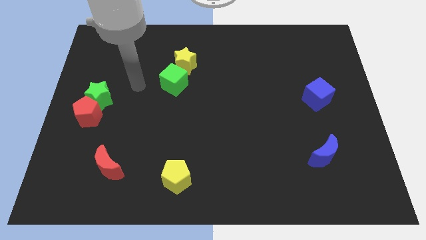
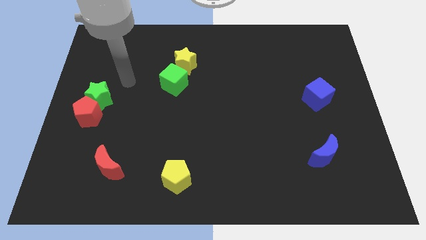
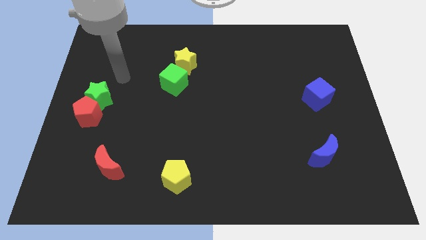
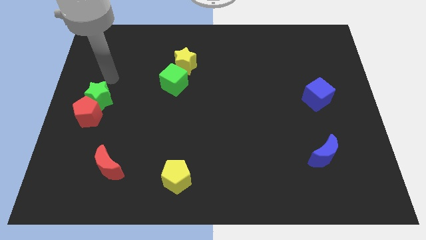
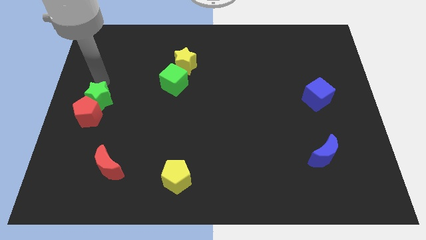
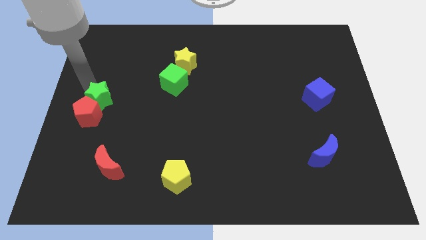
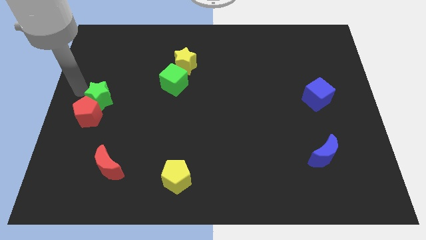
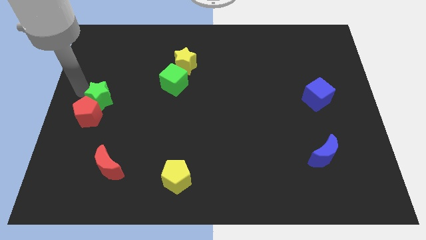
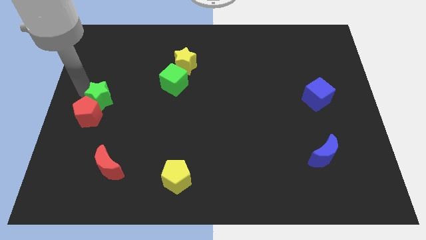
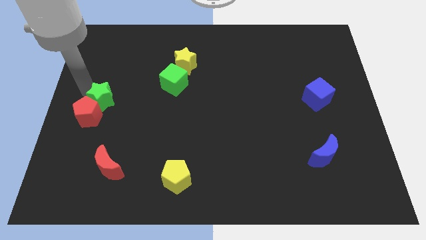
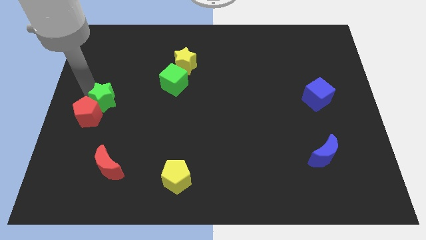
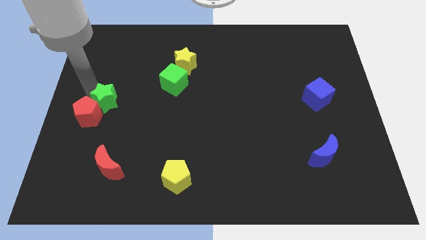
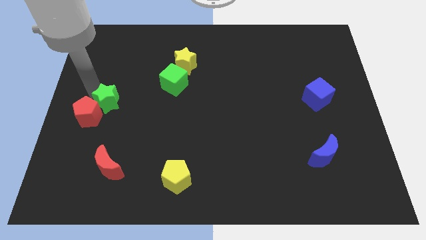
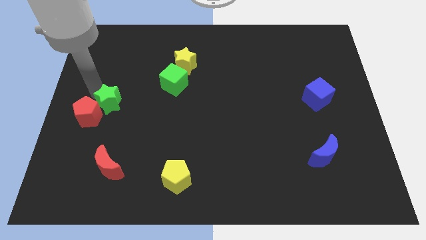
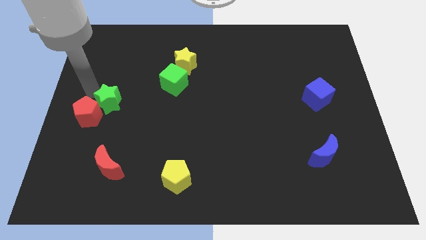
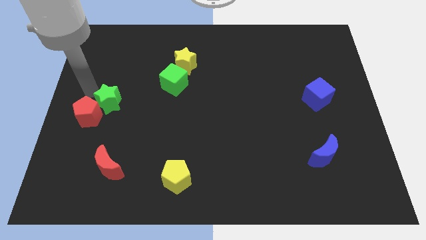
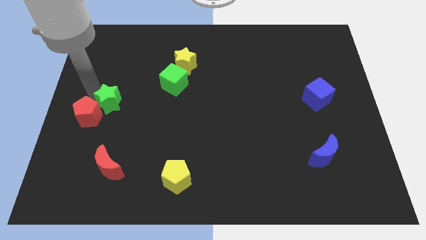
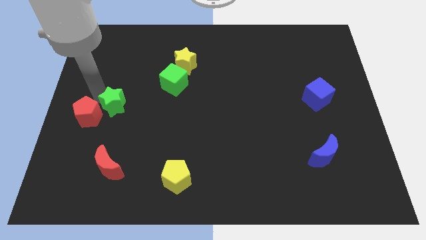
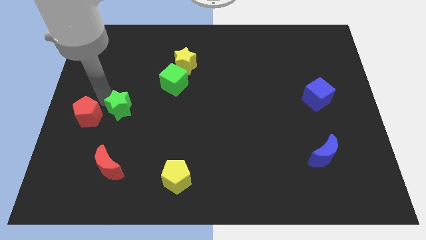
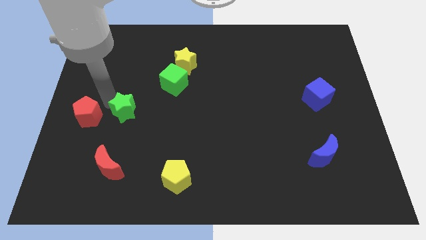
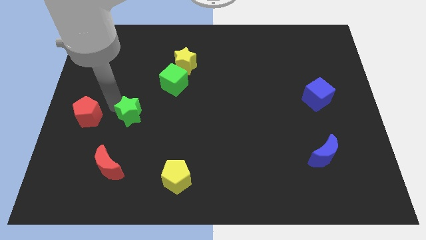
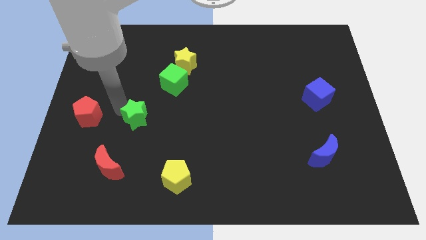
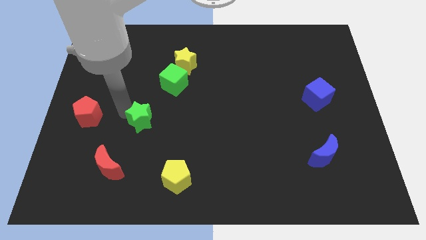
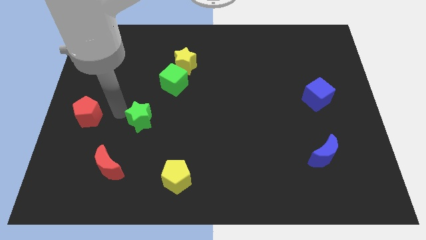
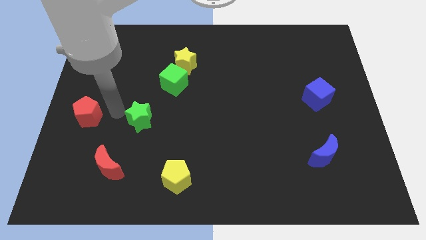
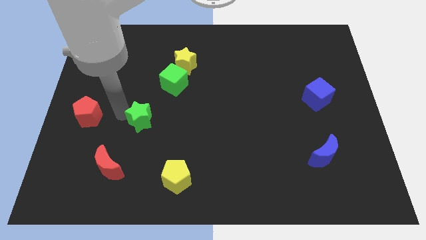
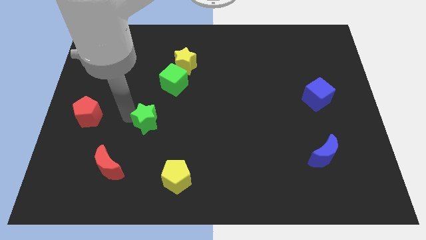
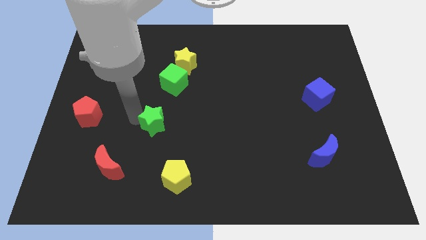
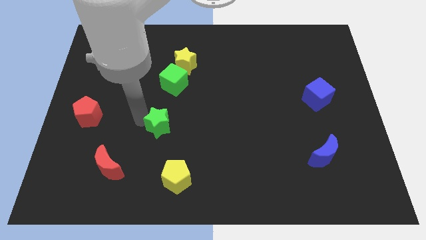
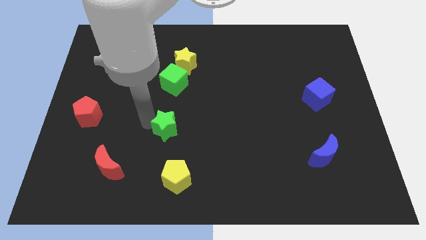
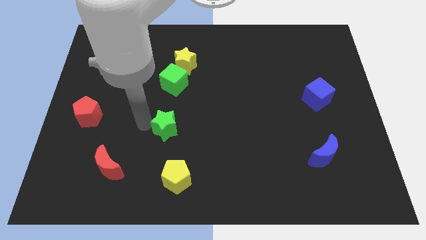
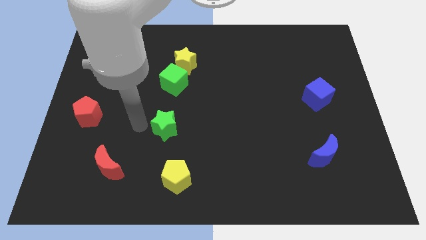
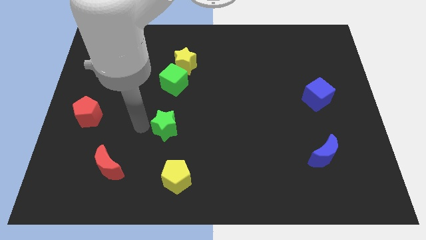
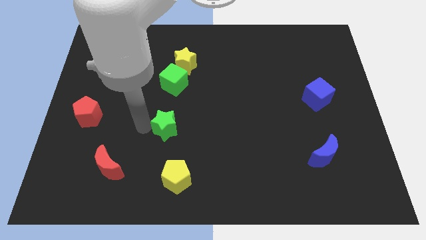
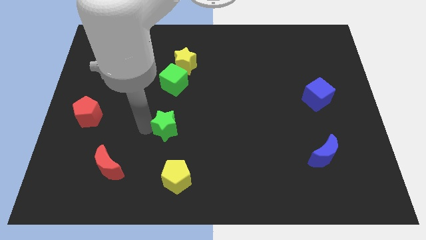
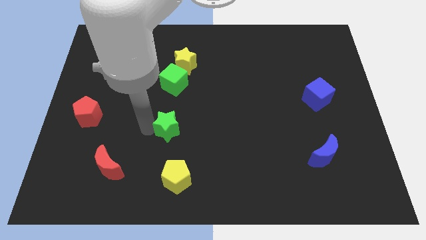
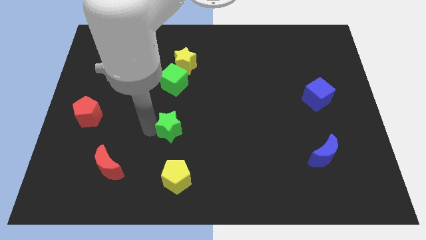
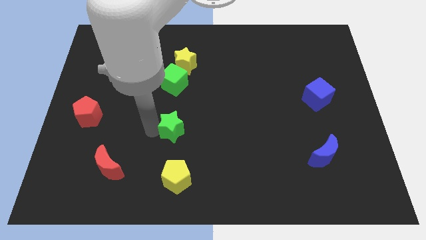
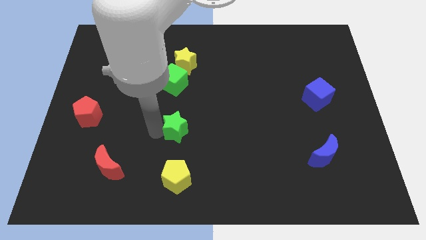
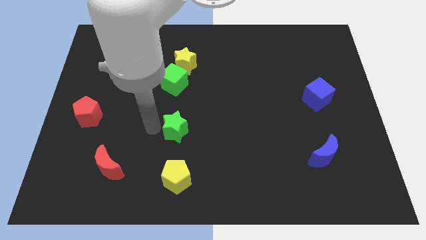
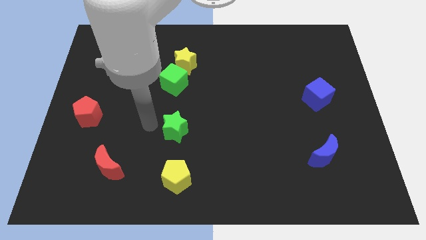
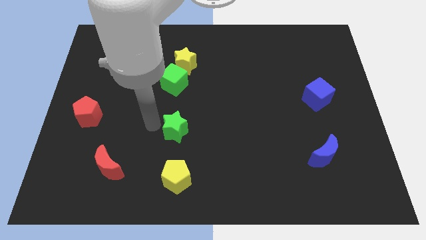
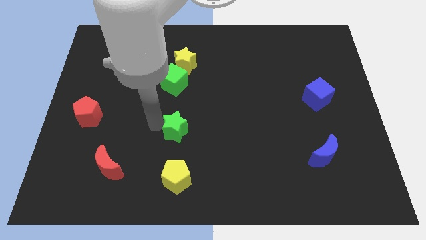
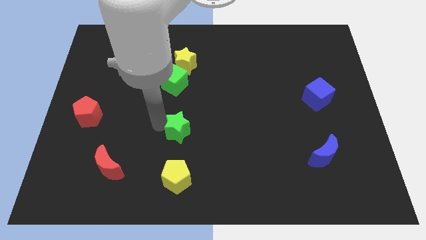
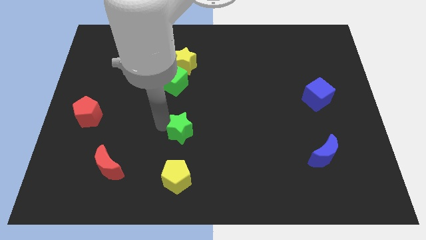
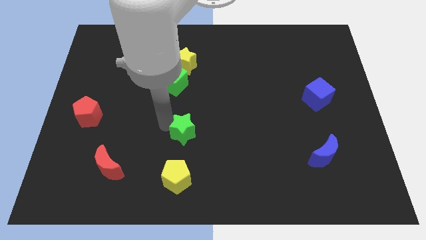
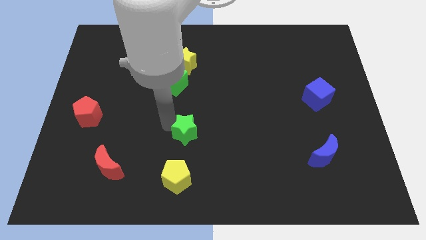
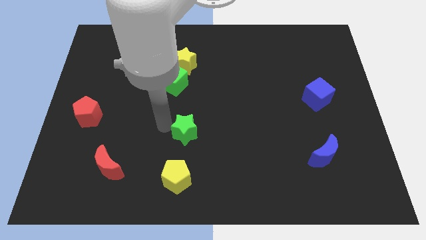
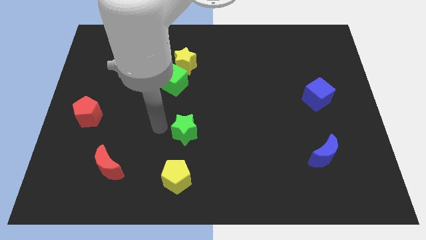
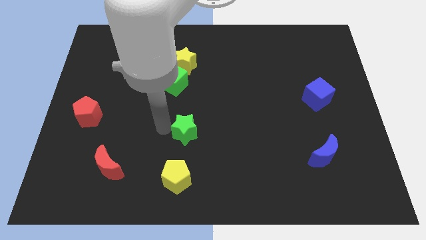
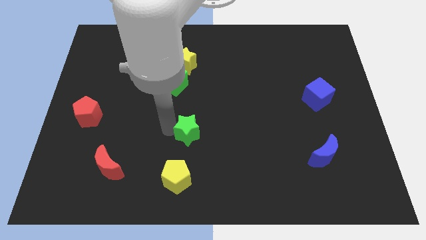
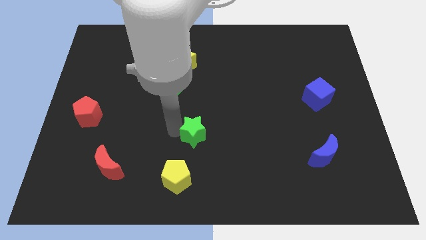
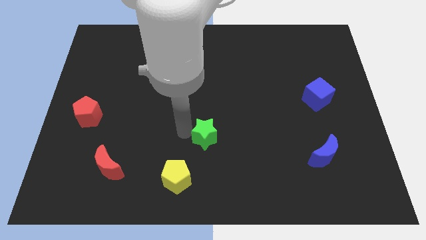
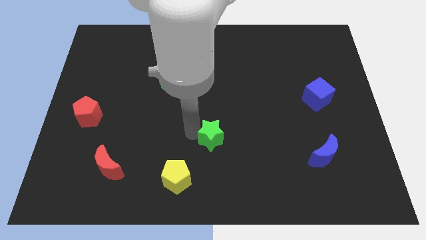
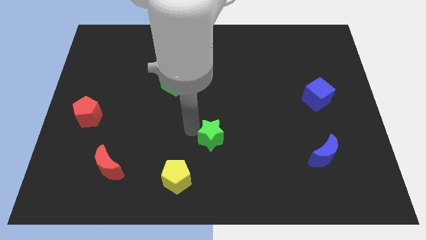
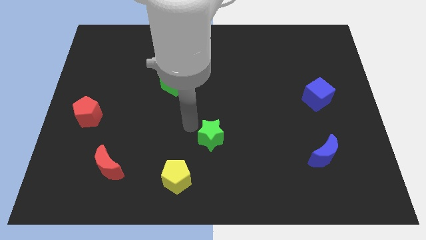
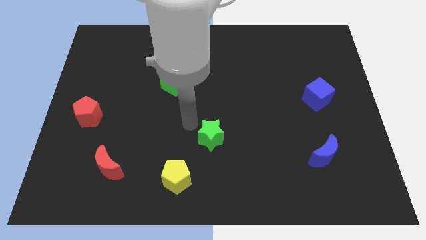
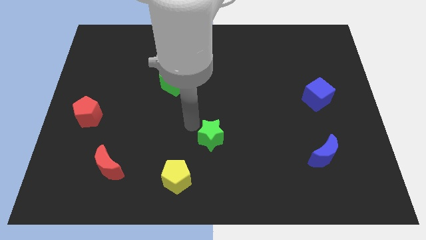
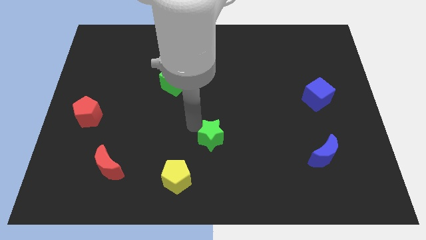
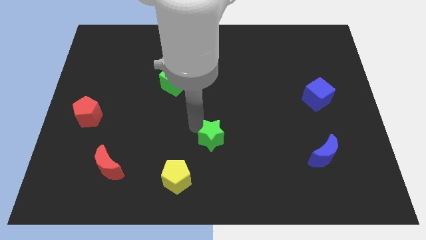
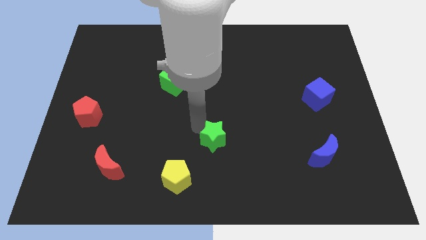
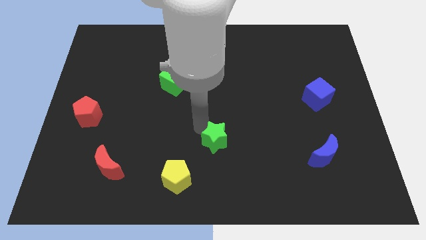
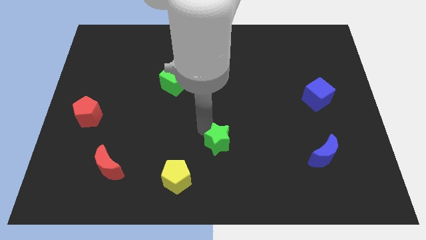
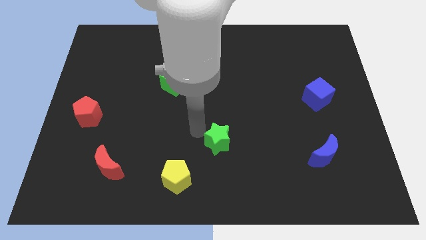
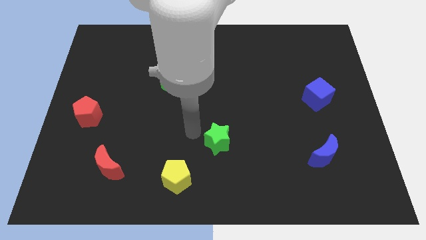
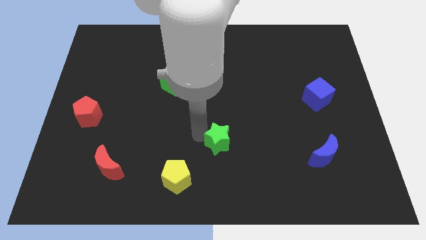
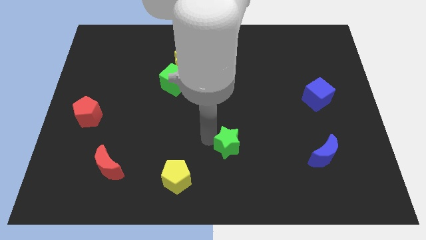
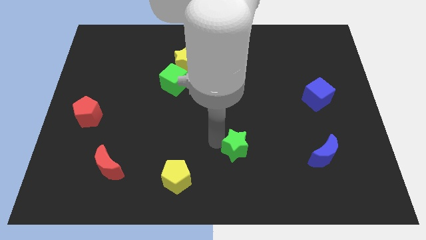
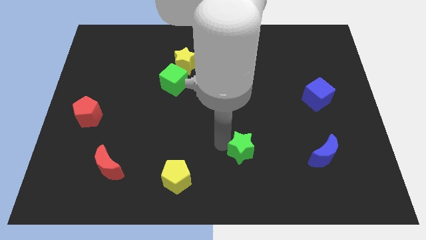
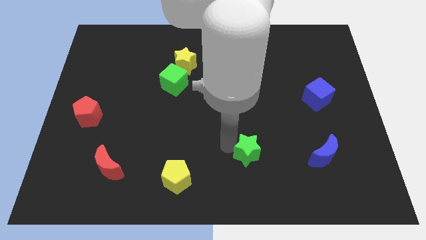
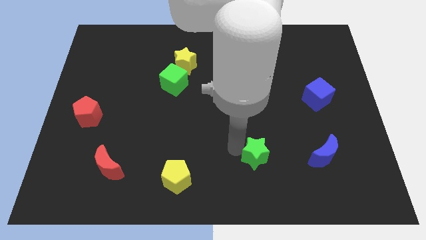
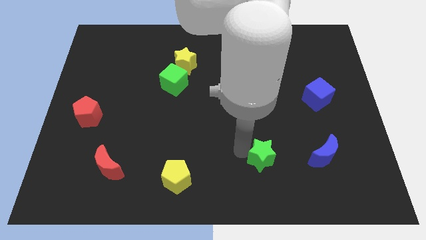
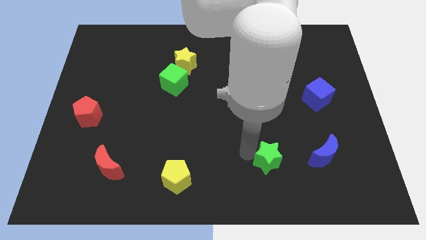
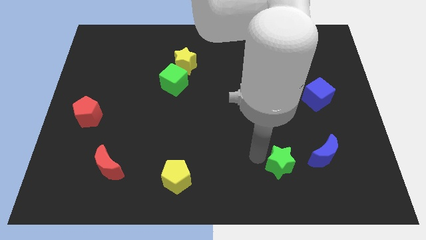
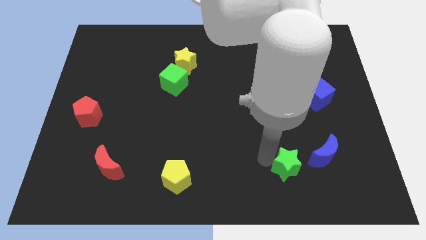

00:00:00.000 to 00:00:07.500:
push the green star diagonally down and to the left of the blue moon
